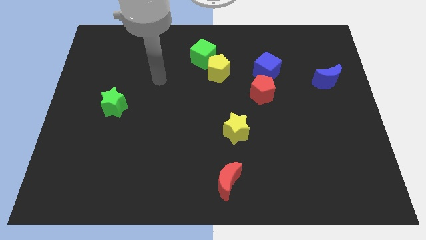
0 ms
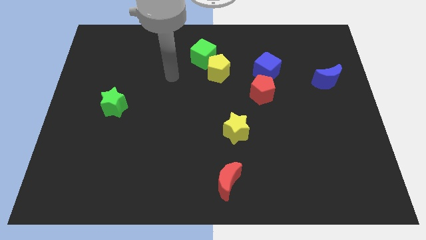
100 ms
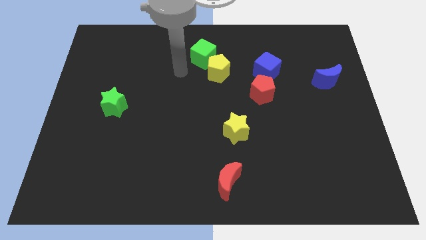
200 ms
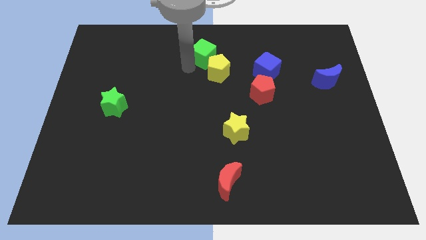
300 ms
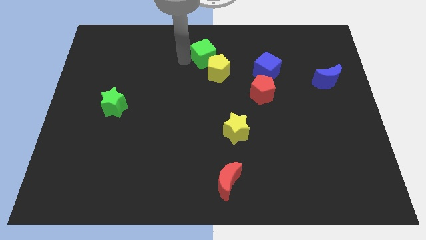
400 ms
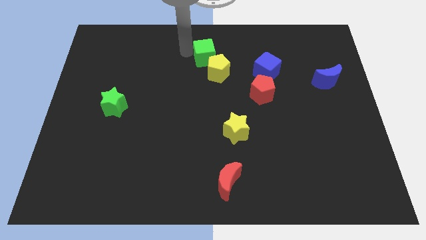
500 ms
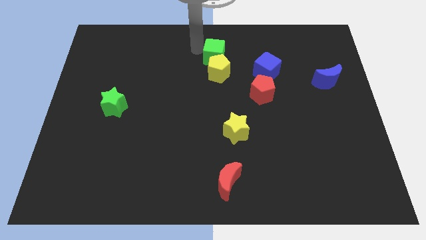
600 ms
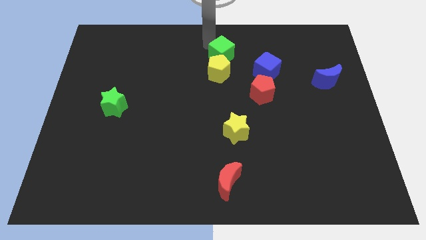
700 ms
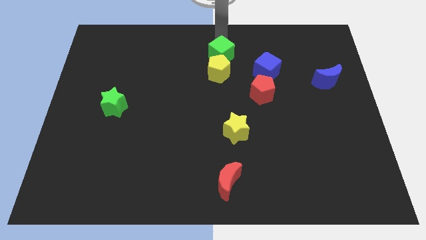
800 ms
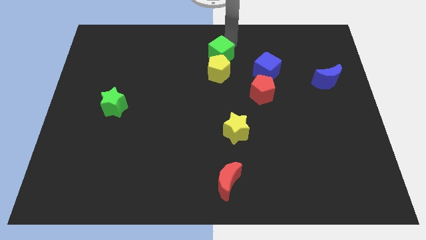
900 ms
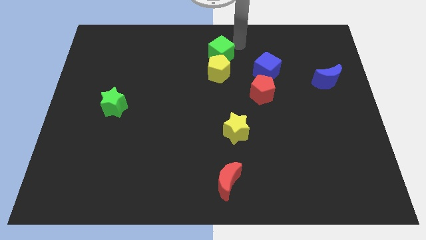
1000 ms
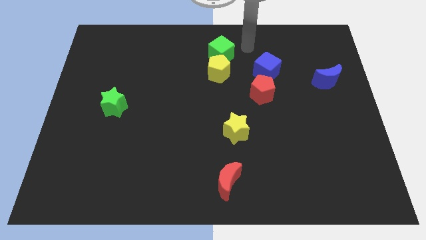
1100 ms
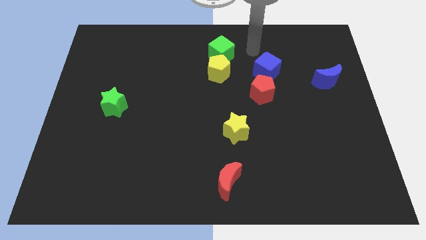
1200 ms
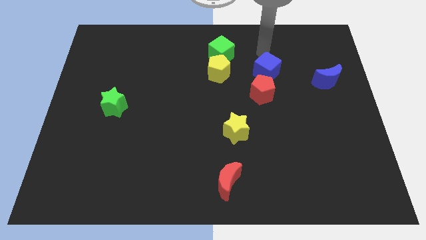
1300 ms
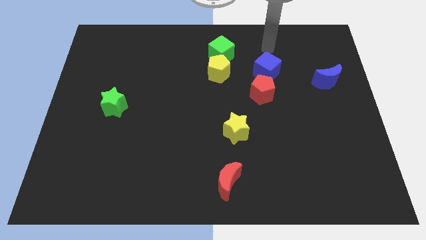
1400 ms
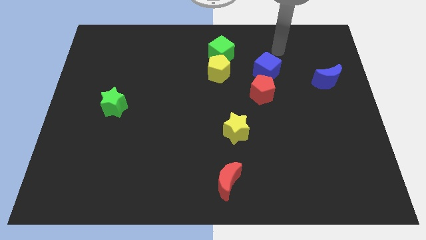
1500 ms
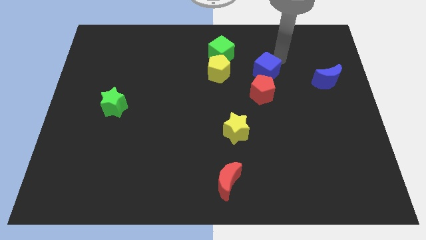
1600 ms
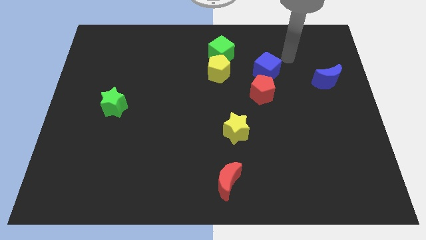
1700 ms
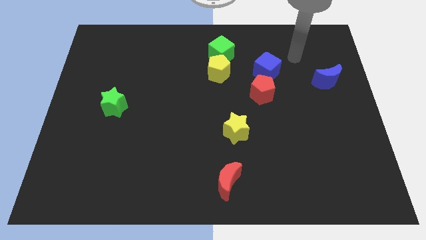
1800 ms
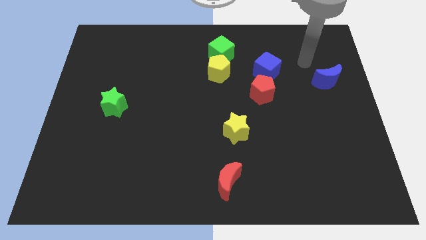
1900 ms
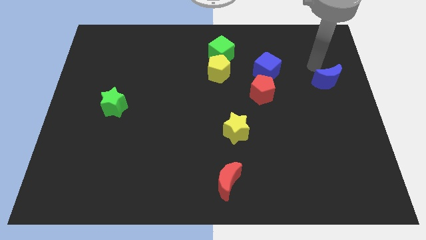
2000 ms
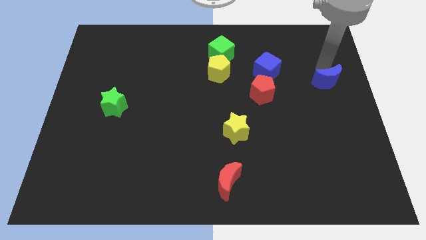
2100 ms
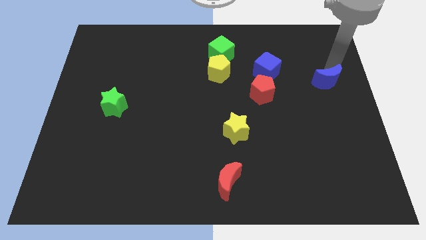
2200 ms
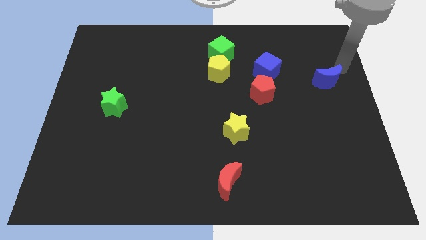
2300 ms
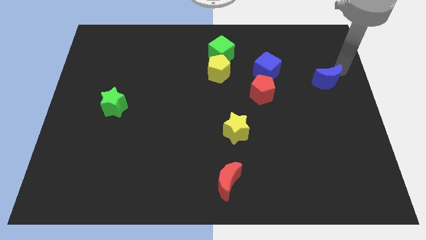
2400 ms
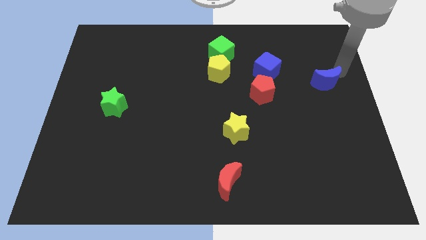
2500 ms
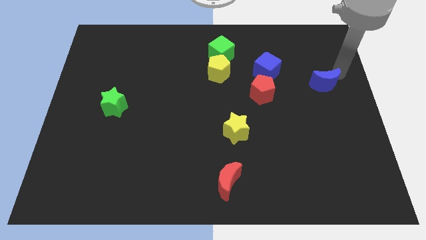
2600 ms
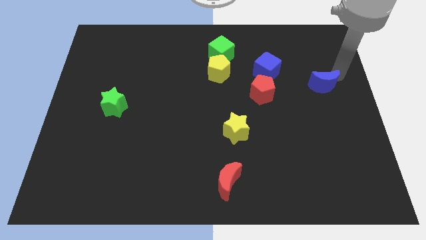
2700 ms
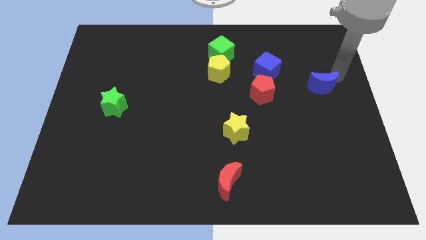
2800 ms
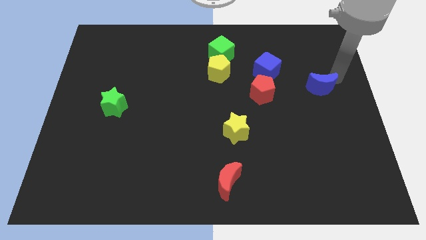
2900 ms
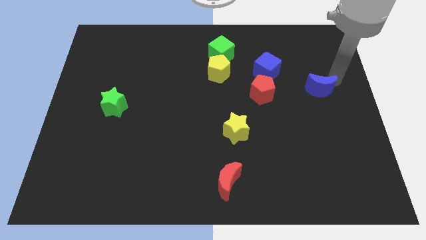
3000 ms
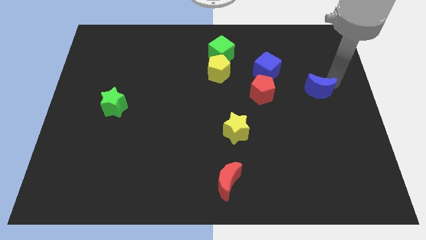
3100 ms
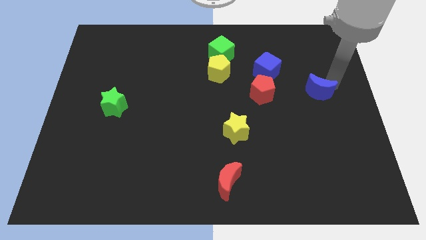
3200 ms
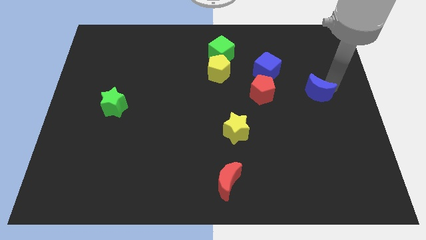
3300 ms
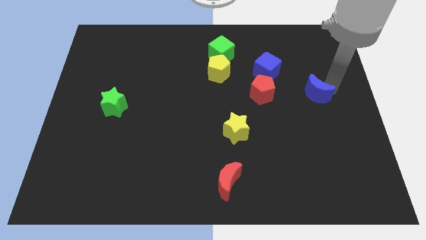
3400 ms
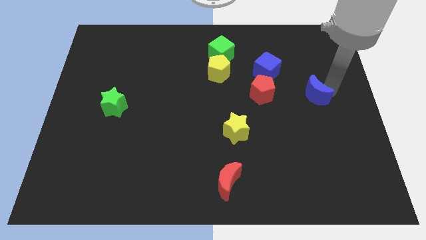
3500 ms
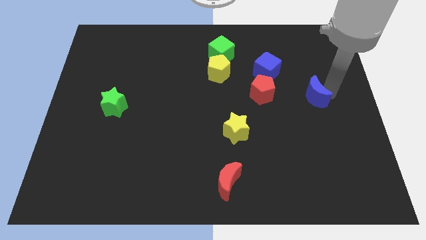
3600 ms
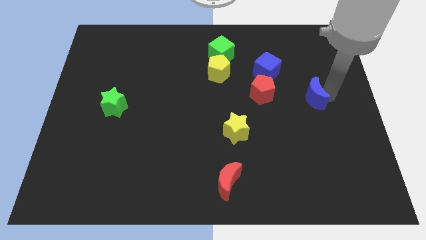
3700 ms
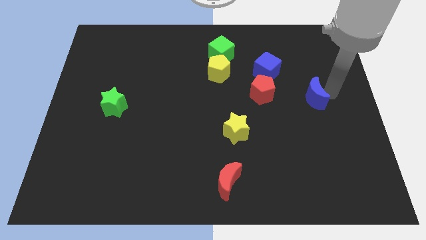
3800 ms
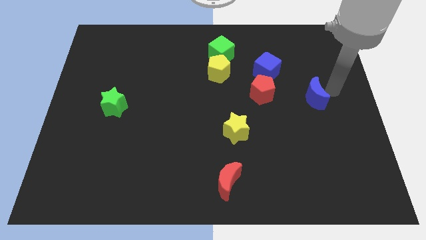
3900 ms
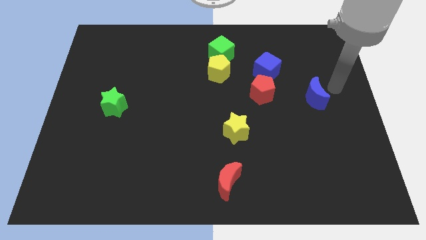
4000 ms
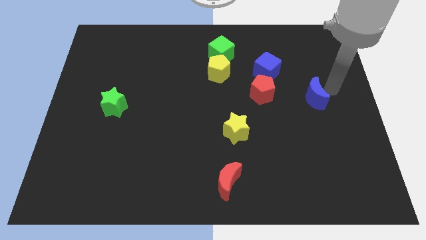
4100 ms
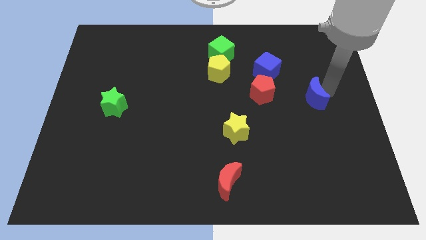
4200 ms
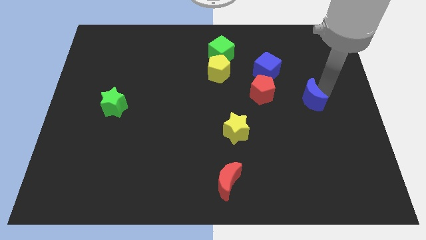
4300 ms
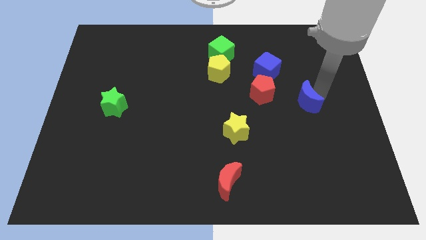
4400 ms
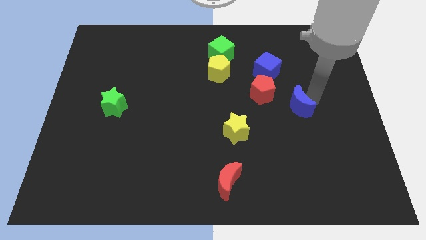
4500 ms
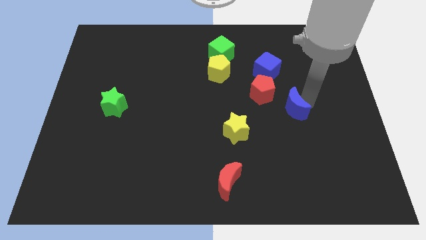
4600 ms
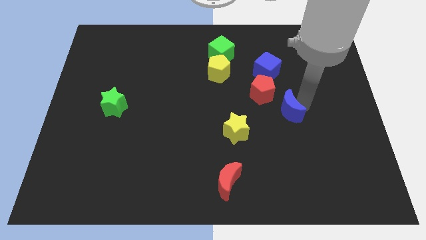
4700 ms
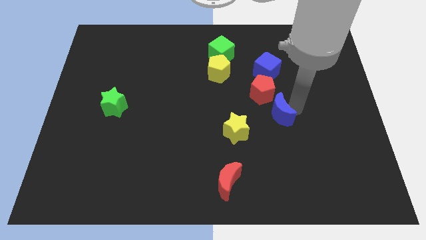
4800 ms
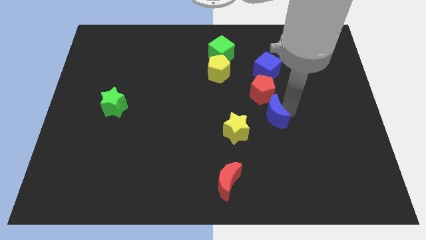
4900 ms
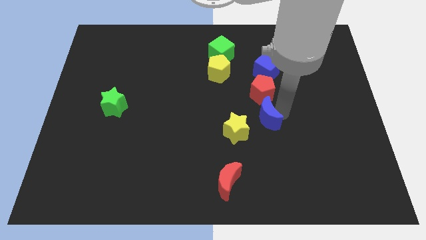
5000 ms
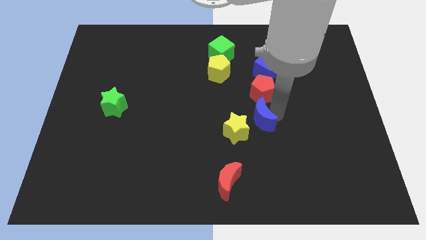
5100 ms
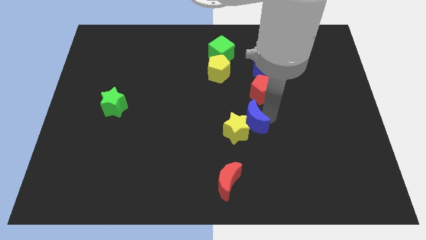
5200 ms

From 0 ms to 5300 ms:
push the blue moon close to the yellow star

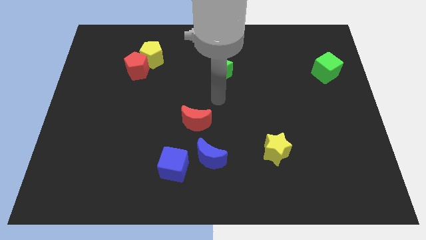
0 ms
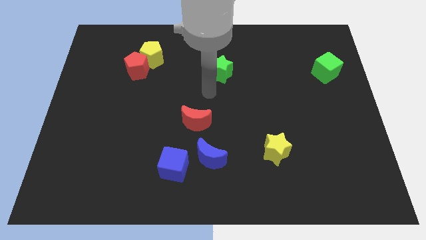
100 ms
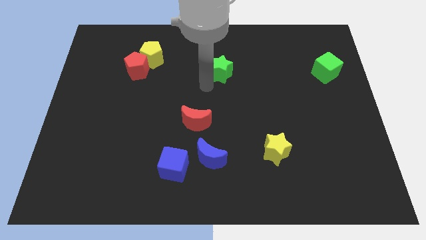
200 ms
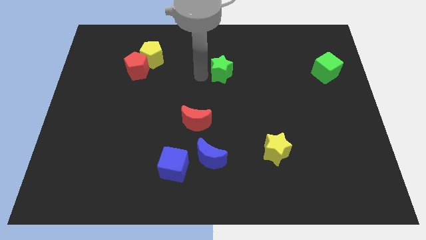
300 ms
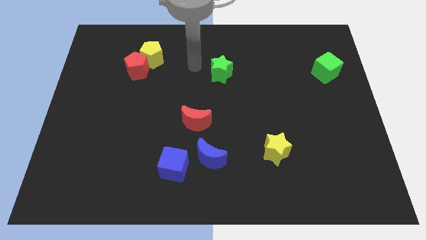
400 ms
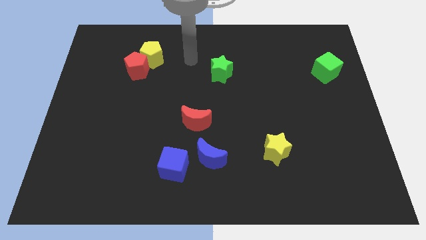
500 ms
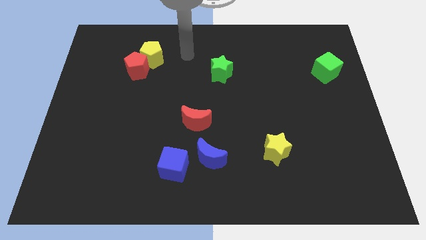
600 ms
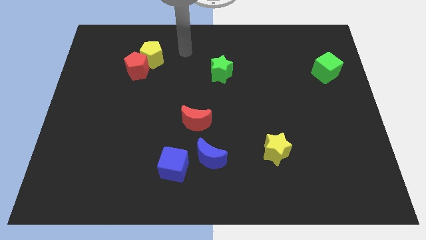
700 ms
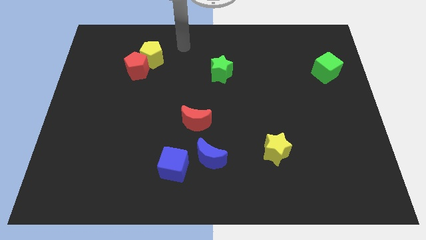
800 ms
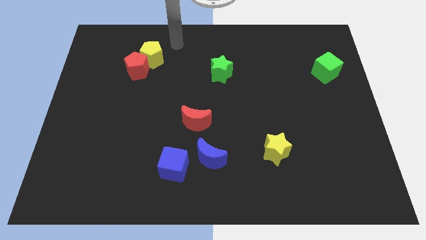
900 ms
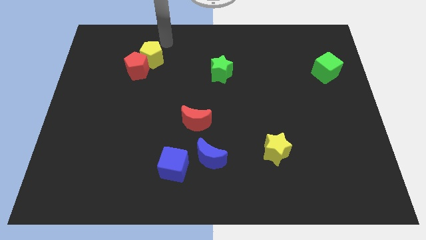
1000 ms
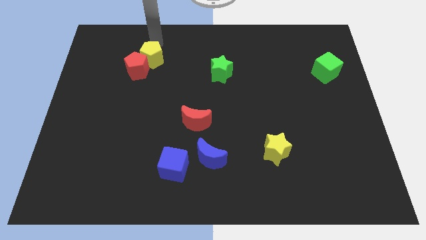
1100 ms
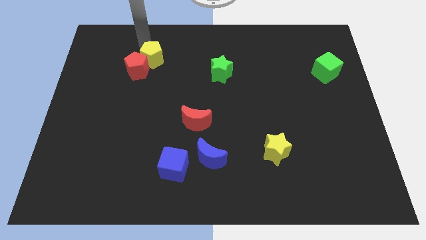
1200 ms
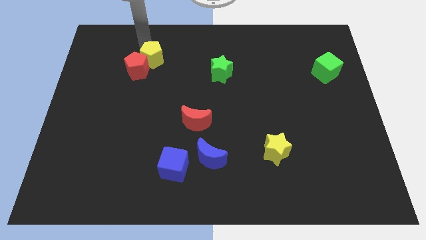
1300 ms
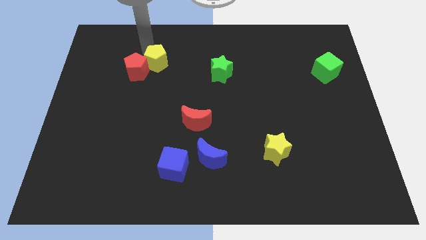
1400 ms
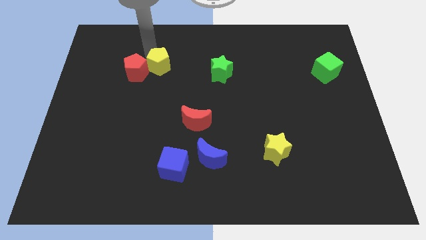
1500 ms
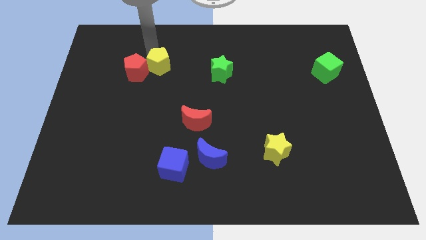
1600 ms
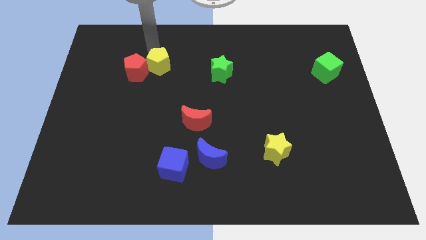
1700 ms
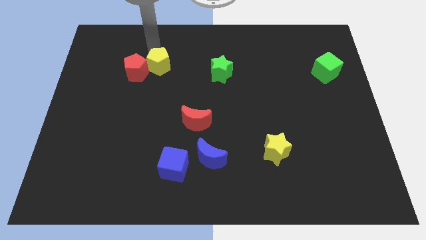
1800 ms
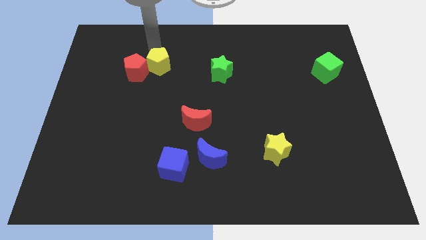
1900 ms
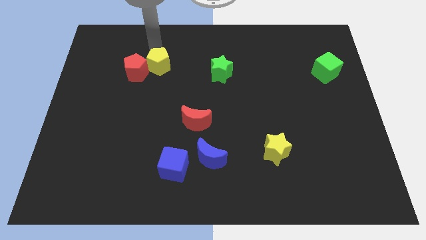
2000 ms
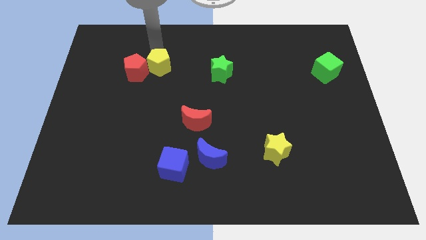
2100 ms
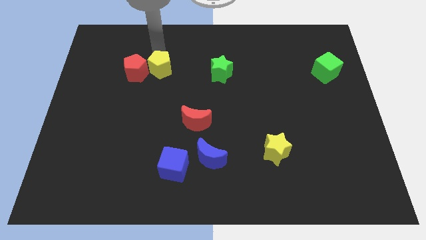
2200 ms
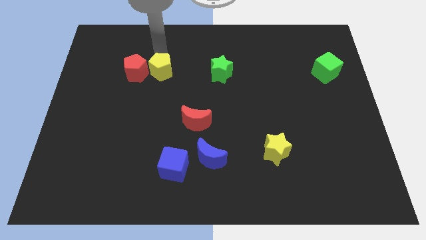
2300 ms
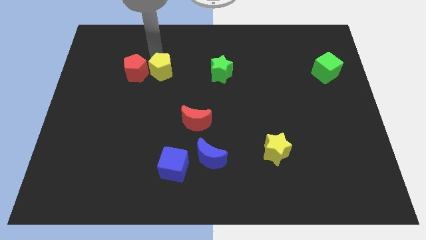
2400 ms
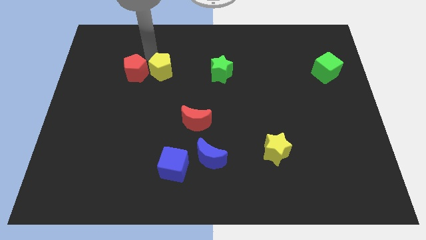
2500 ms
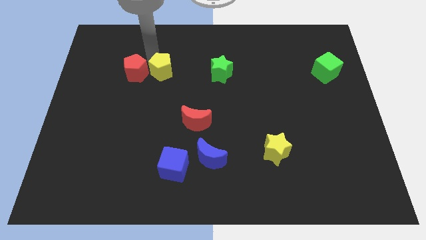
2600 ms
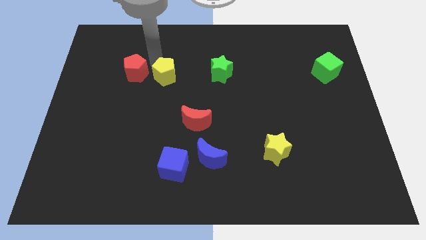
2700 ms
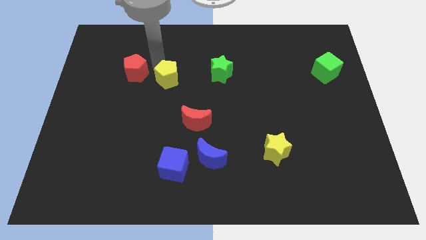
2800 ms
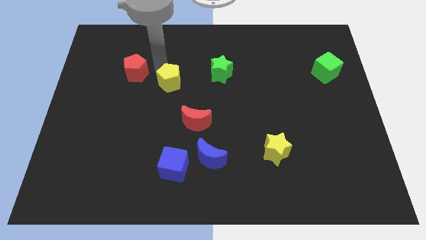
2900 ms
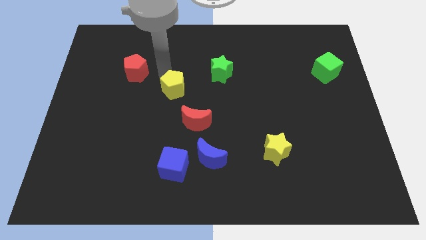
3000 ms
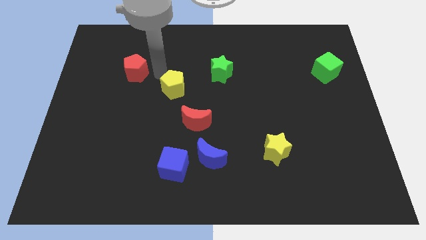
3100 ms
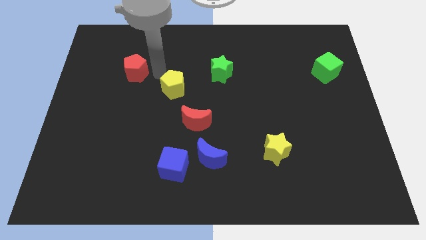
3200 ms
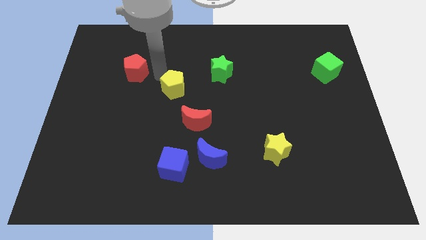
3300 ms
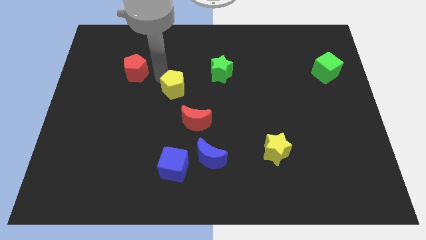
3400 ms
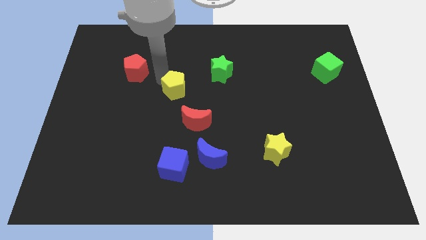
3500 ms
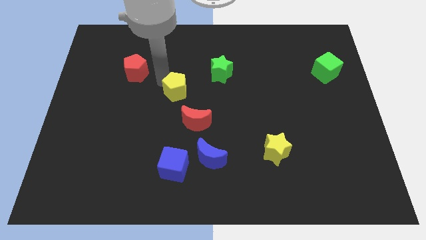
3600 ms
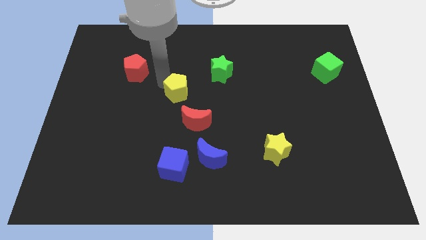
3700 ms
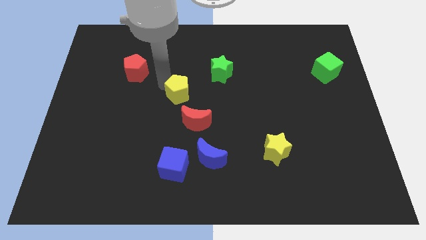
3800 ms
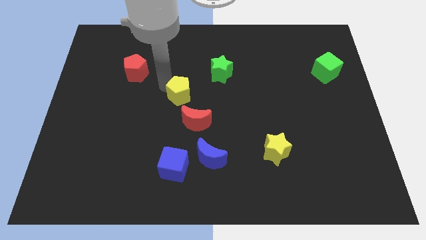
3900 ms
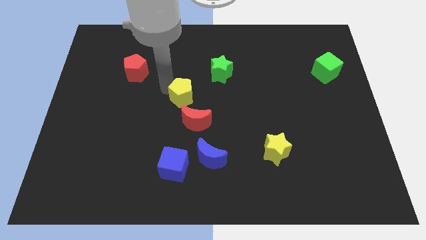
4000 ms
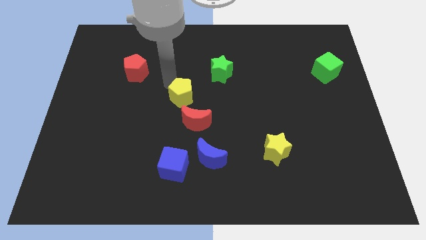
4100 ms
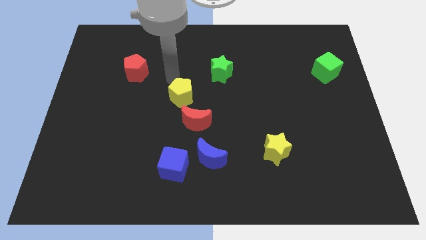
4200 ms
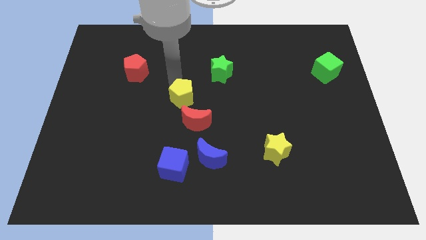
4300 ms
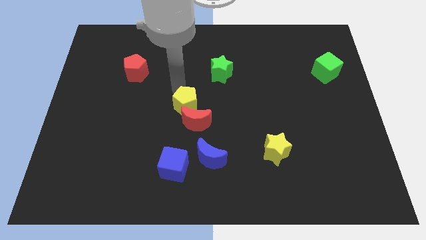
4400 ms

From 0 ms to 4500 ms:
put the yellow pentagon close to the red moon
